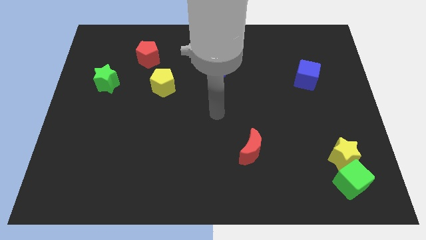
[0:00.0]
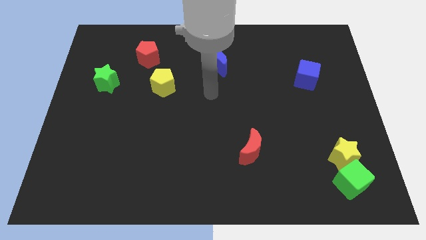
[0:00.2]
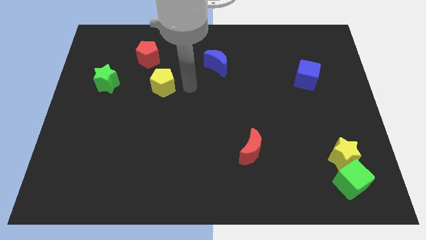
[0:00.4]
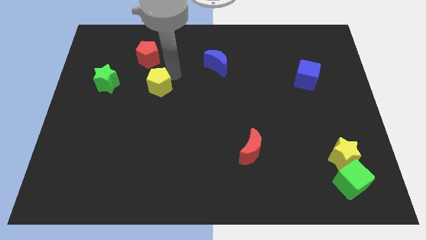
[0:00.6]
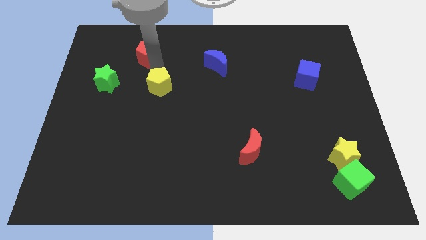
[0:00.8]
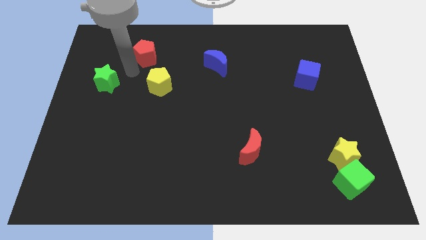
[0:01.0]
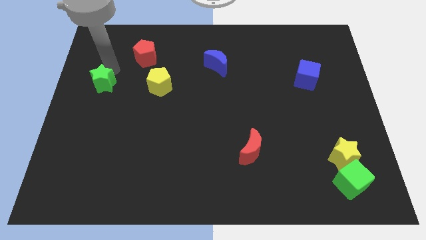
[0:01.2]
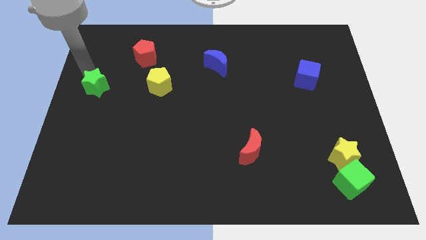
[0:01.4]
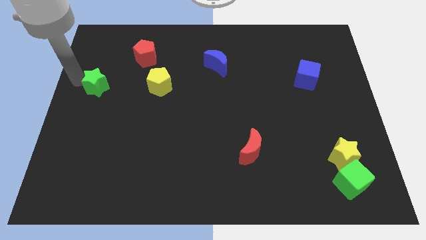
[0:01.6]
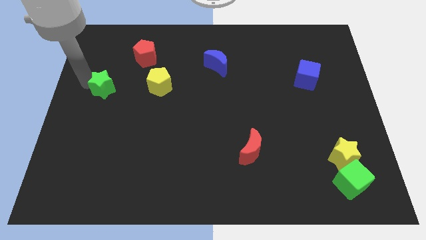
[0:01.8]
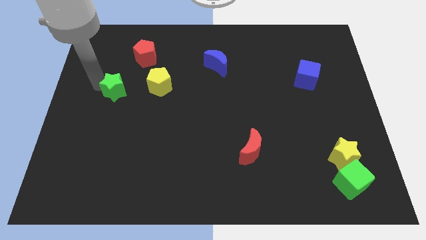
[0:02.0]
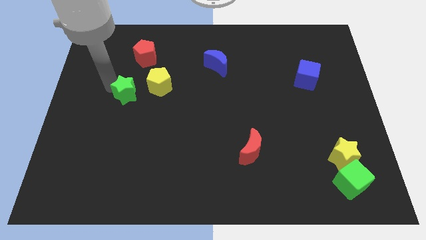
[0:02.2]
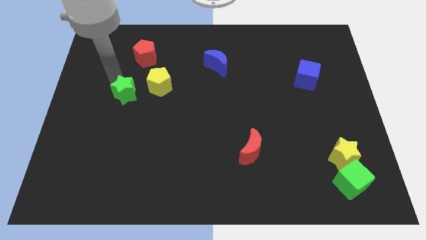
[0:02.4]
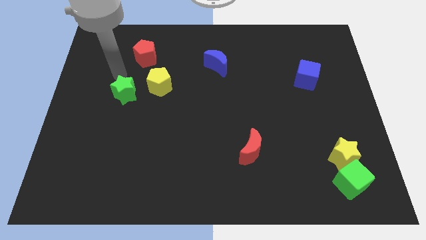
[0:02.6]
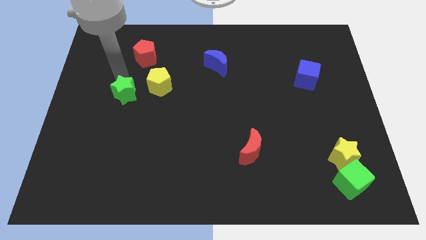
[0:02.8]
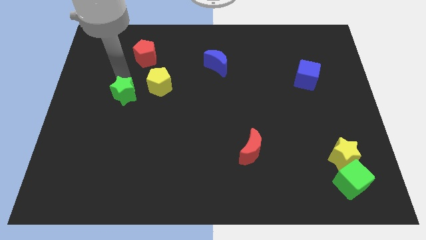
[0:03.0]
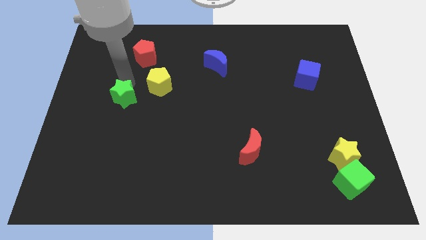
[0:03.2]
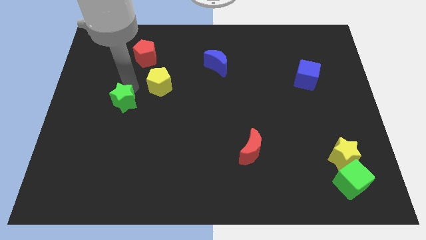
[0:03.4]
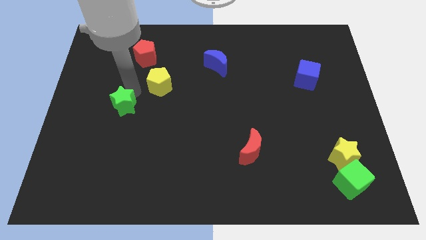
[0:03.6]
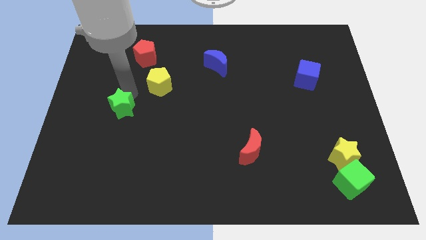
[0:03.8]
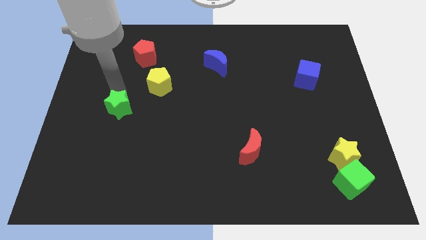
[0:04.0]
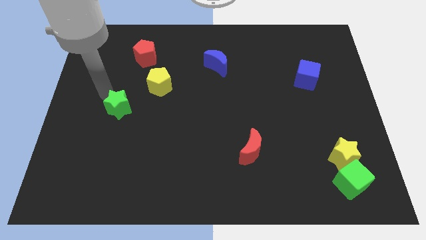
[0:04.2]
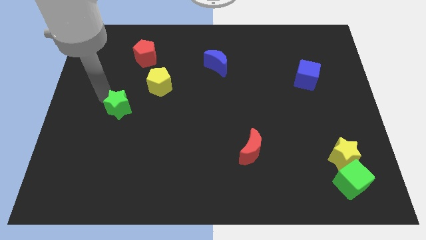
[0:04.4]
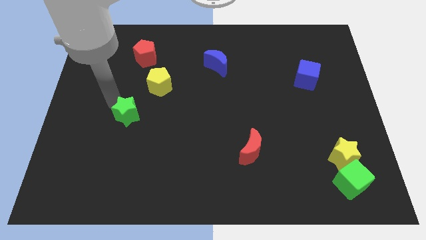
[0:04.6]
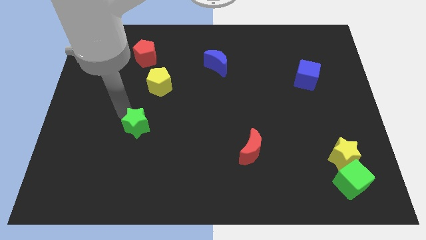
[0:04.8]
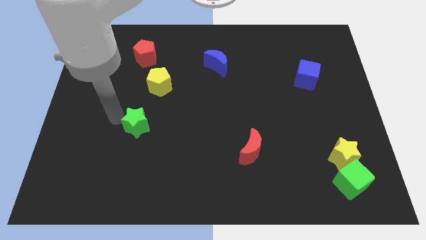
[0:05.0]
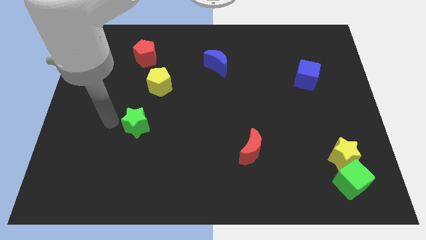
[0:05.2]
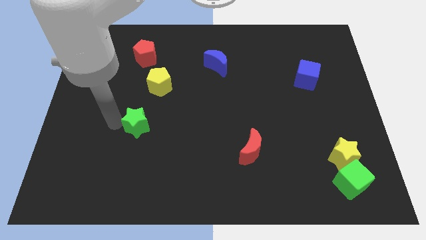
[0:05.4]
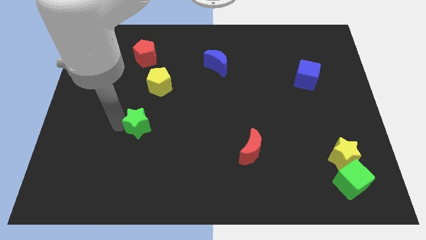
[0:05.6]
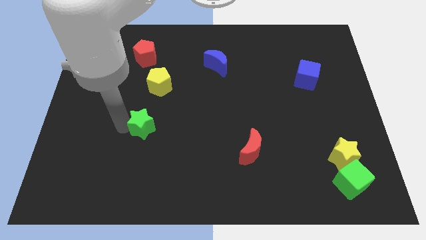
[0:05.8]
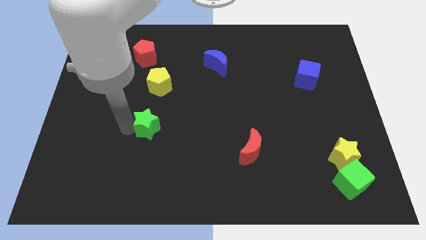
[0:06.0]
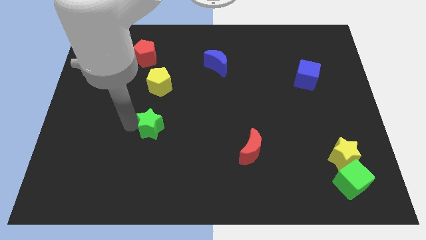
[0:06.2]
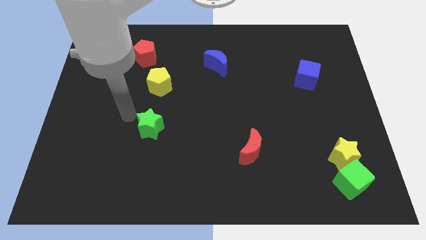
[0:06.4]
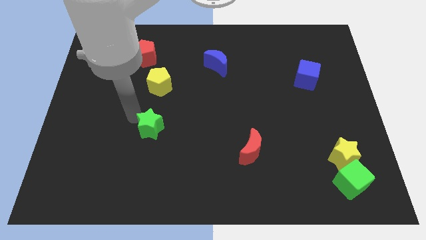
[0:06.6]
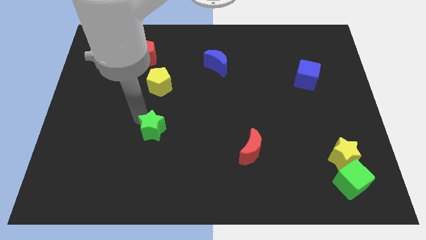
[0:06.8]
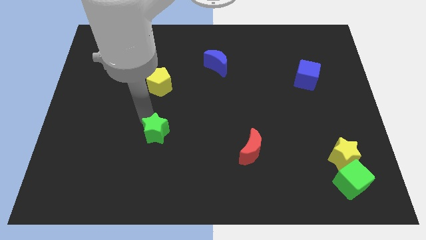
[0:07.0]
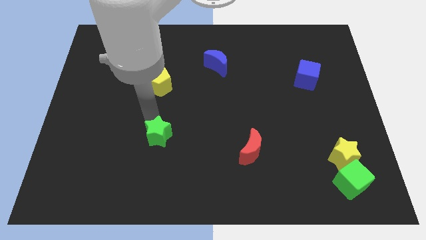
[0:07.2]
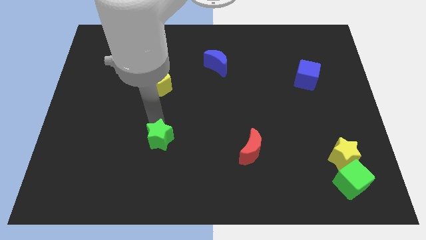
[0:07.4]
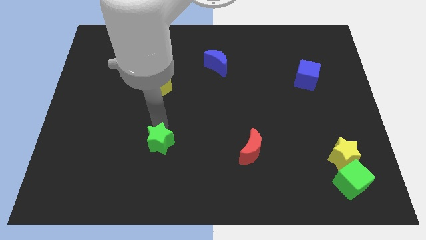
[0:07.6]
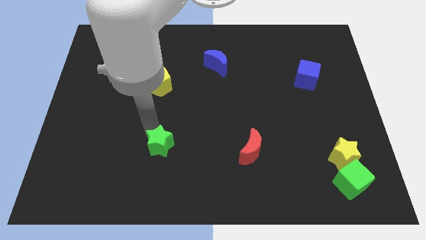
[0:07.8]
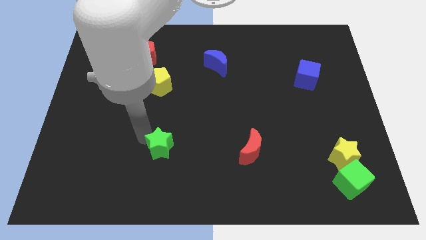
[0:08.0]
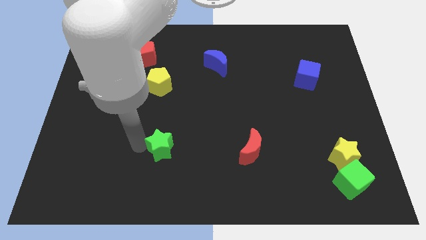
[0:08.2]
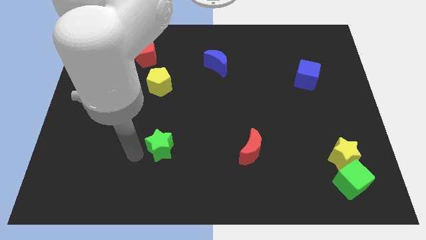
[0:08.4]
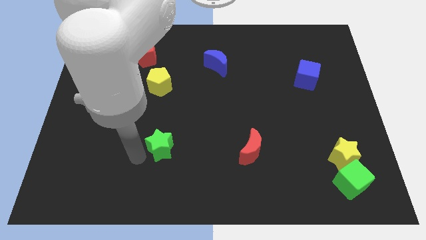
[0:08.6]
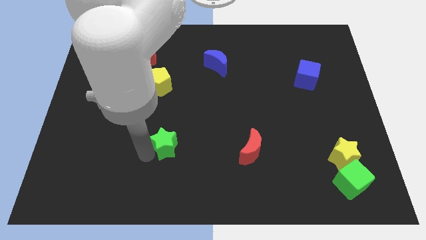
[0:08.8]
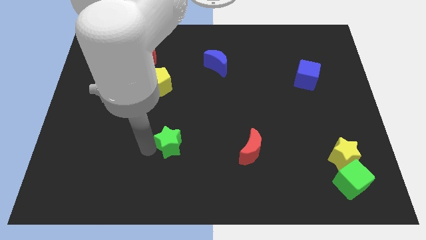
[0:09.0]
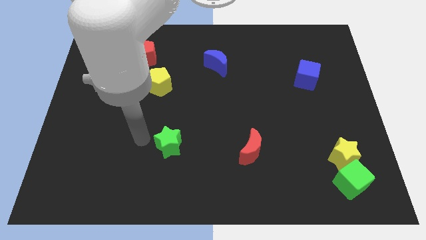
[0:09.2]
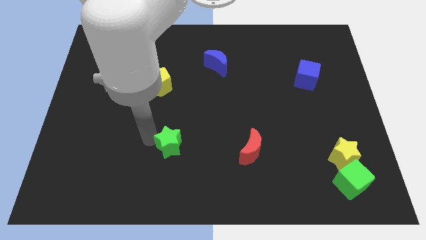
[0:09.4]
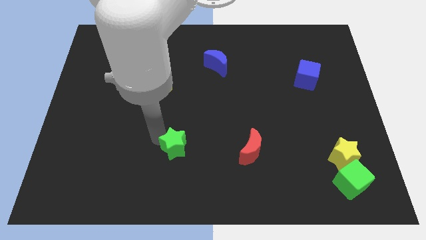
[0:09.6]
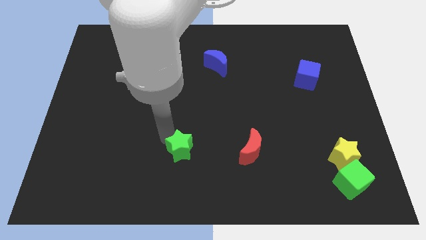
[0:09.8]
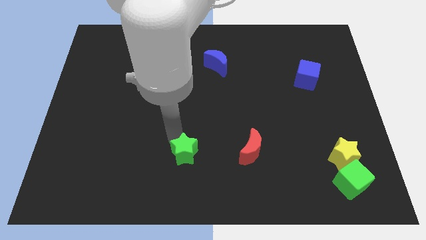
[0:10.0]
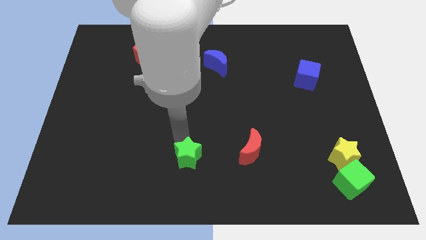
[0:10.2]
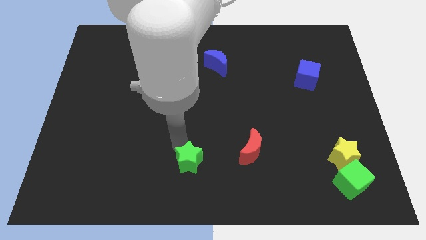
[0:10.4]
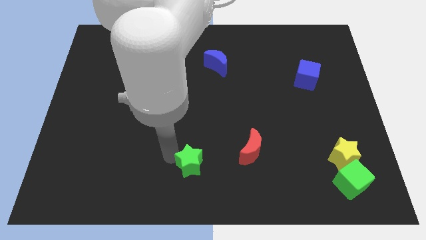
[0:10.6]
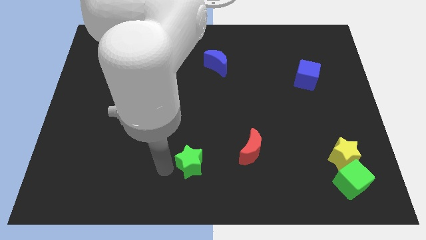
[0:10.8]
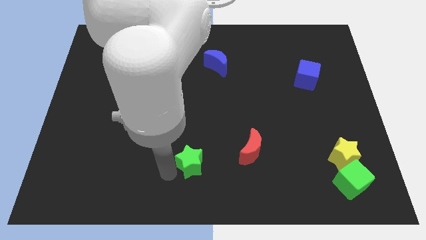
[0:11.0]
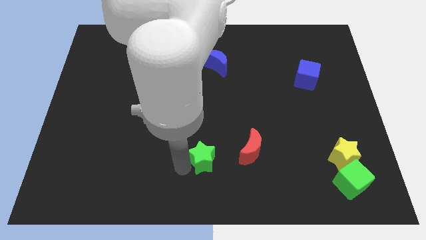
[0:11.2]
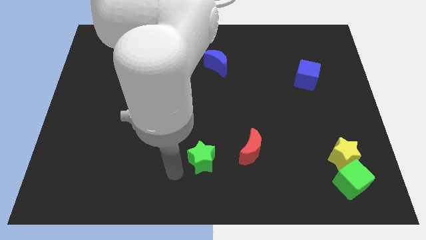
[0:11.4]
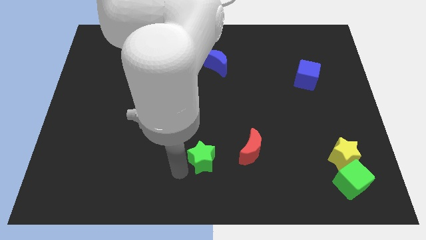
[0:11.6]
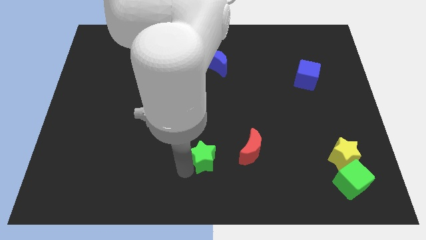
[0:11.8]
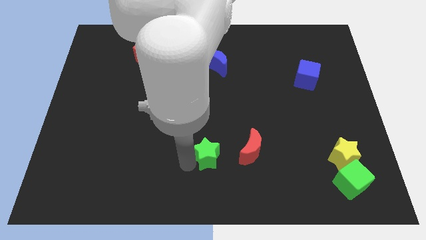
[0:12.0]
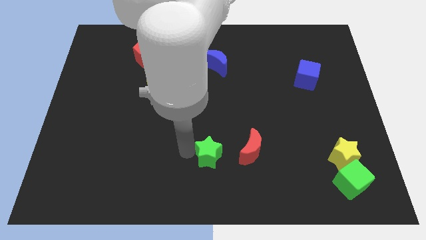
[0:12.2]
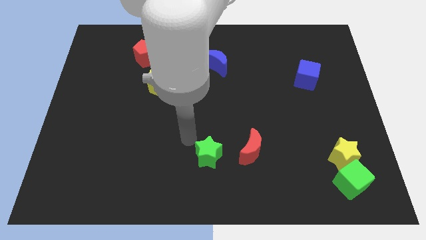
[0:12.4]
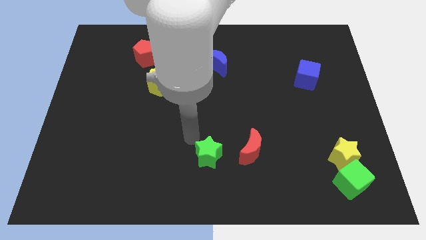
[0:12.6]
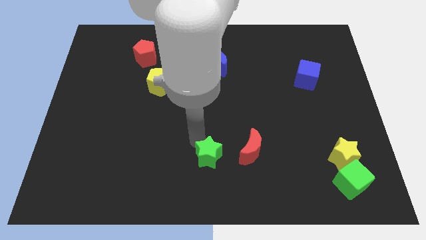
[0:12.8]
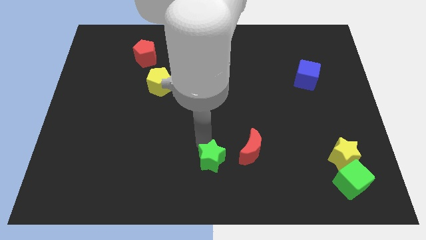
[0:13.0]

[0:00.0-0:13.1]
push the green star diagonally down and to the left of the red moon
